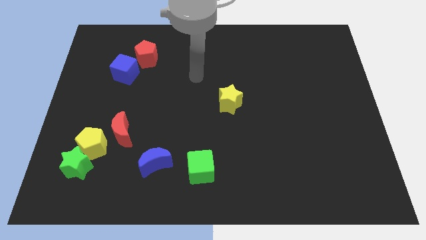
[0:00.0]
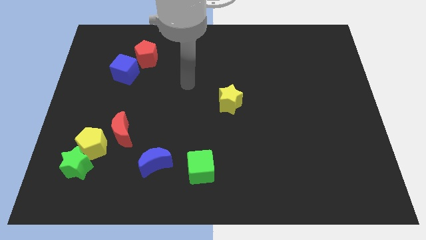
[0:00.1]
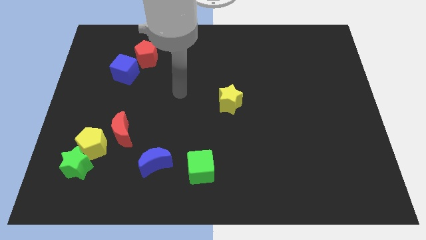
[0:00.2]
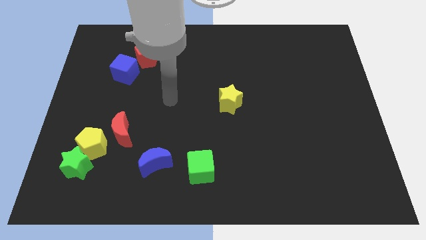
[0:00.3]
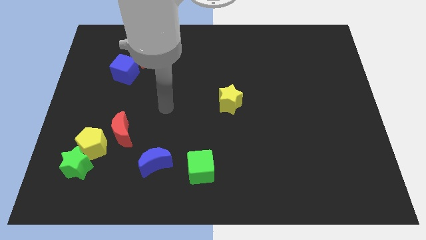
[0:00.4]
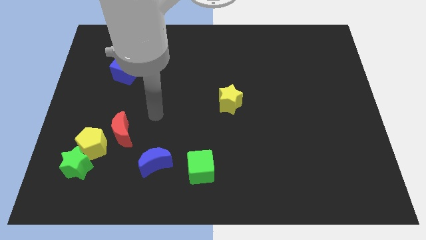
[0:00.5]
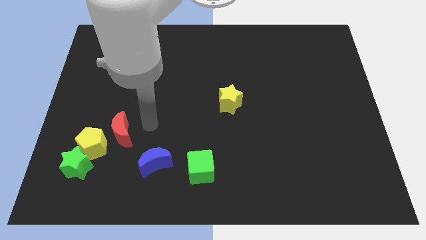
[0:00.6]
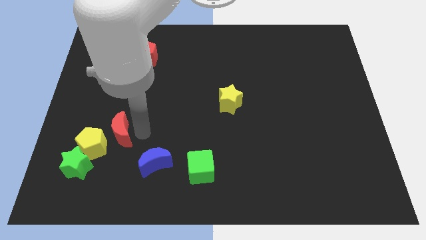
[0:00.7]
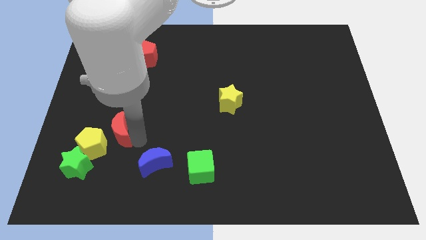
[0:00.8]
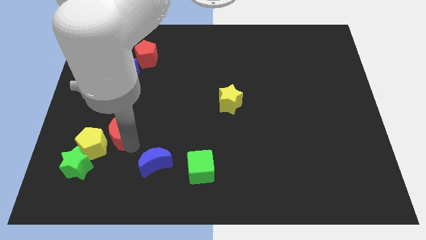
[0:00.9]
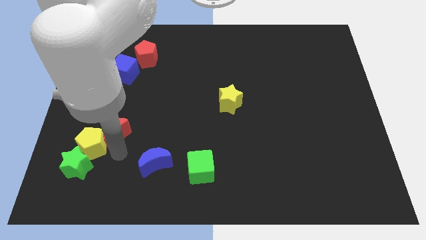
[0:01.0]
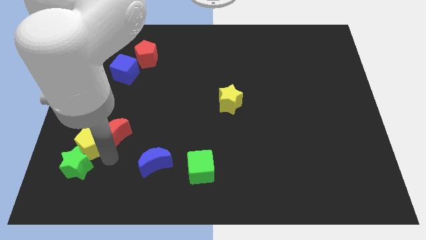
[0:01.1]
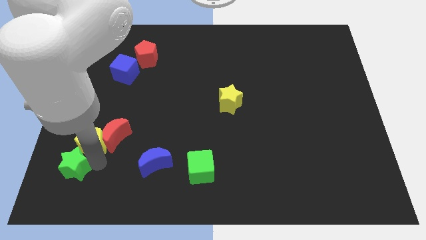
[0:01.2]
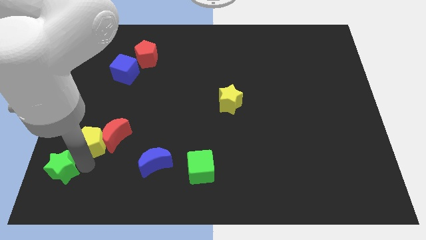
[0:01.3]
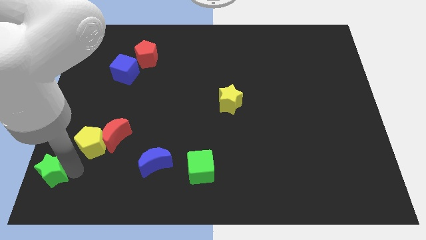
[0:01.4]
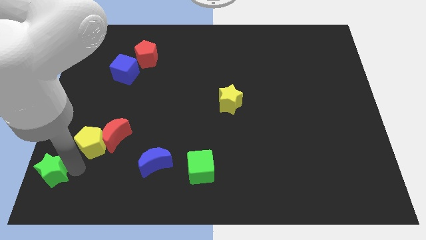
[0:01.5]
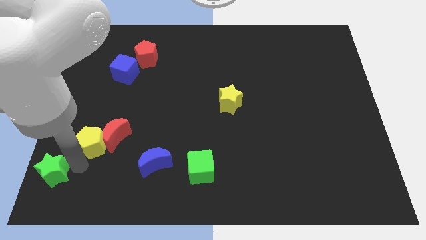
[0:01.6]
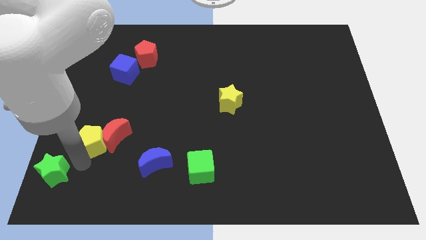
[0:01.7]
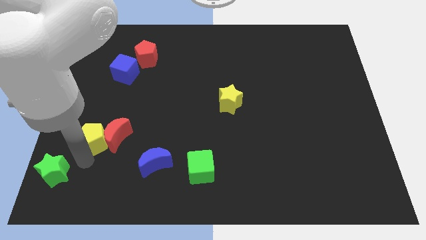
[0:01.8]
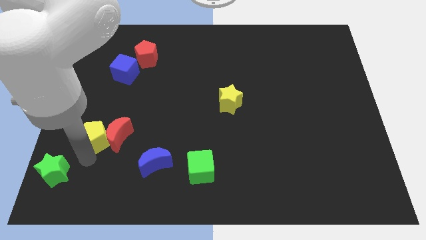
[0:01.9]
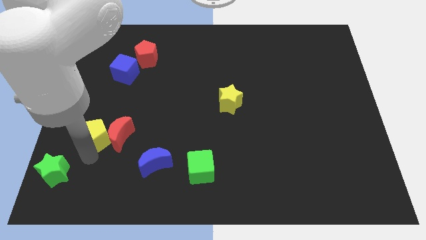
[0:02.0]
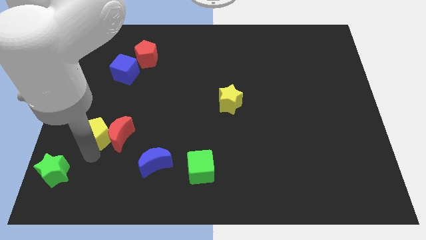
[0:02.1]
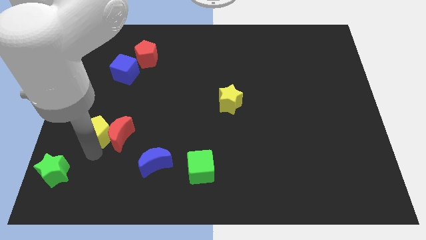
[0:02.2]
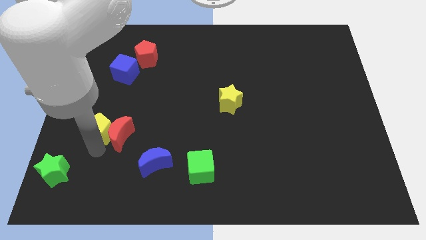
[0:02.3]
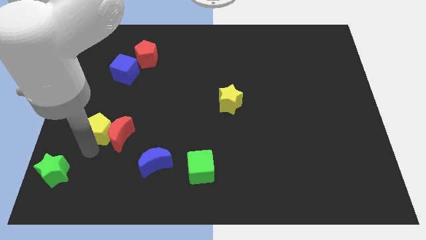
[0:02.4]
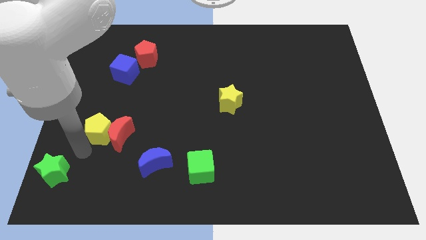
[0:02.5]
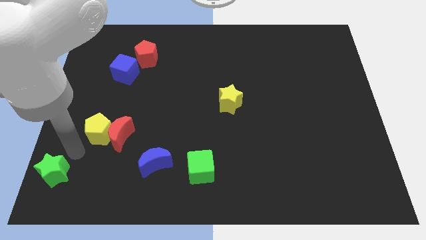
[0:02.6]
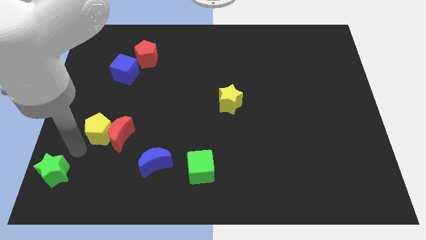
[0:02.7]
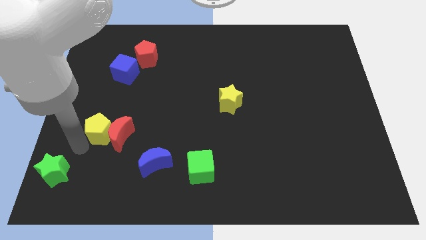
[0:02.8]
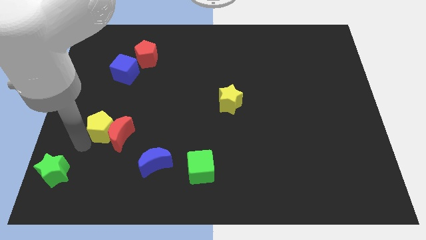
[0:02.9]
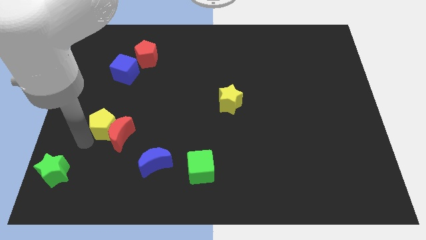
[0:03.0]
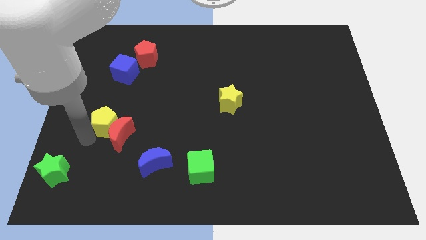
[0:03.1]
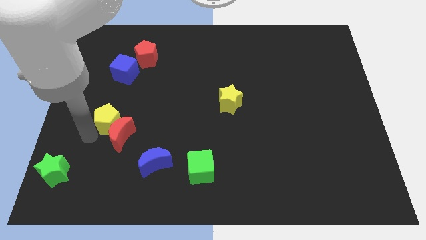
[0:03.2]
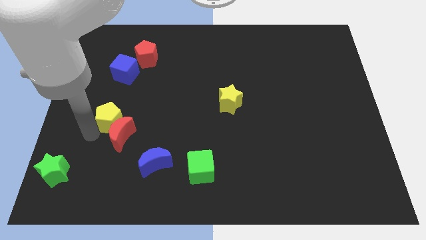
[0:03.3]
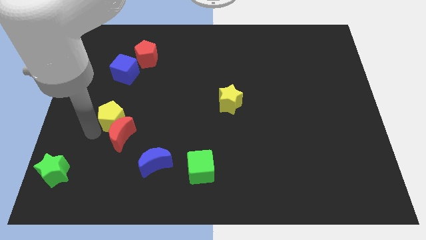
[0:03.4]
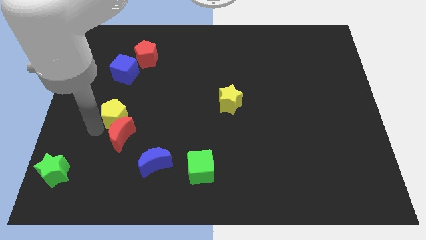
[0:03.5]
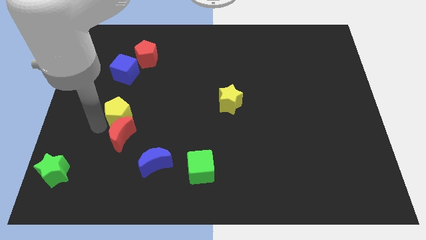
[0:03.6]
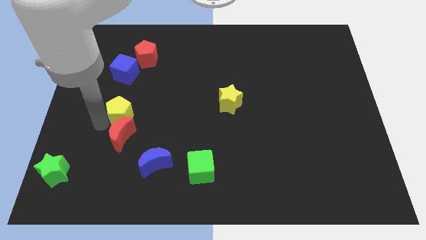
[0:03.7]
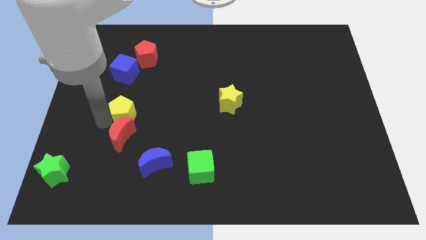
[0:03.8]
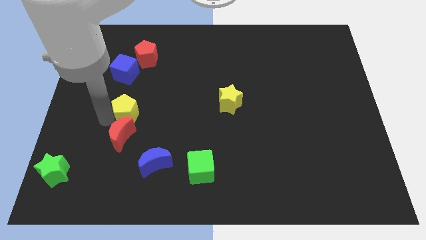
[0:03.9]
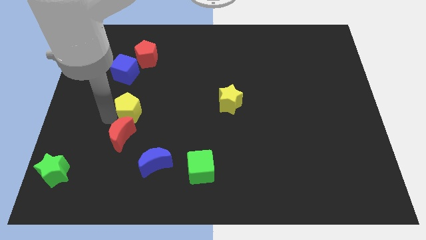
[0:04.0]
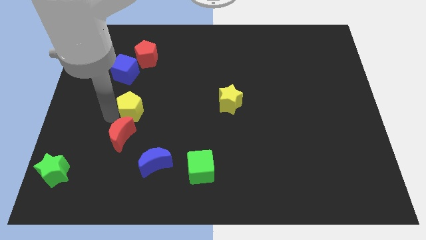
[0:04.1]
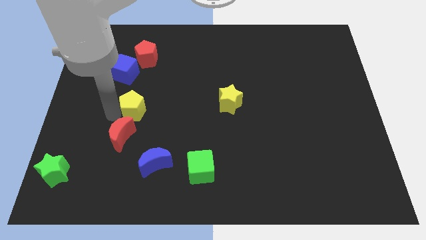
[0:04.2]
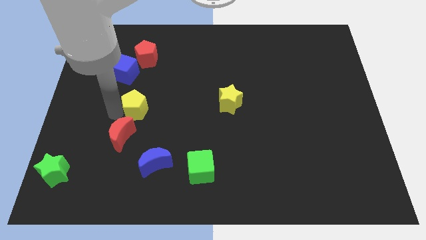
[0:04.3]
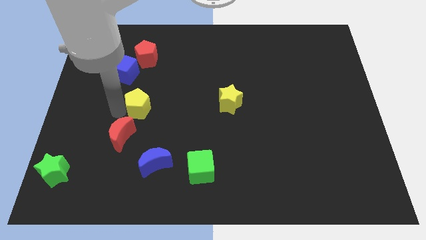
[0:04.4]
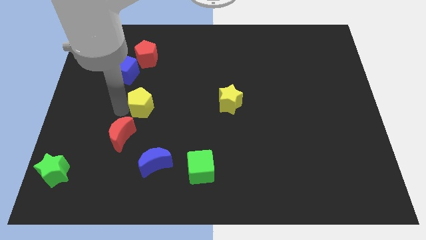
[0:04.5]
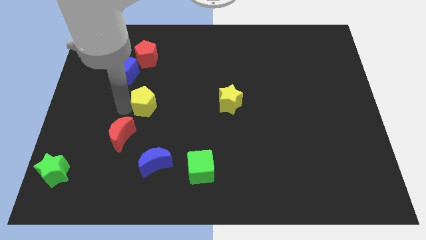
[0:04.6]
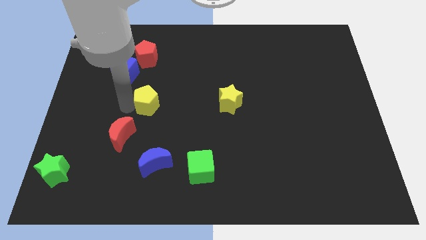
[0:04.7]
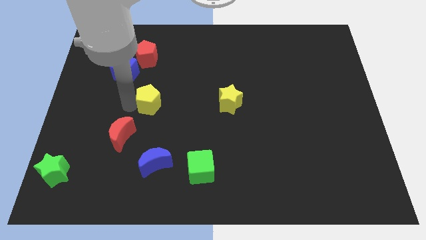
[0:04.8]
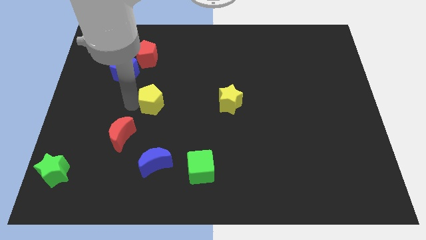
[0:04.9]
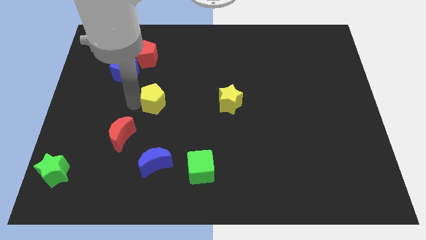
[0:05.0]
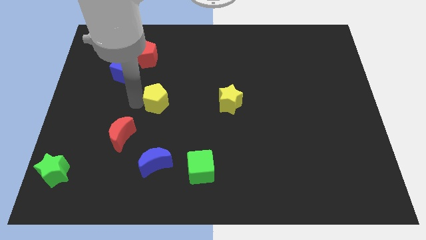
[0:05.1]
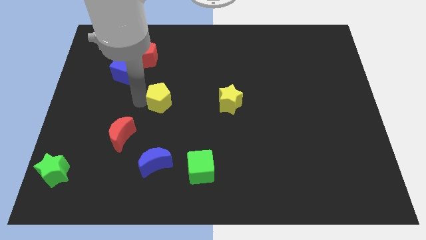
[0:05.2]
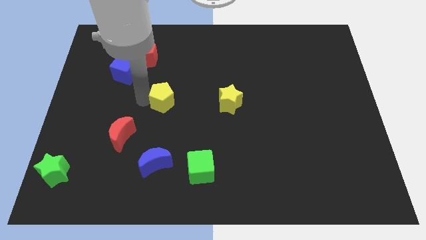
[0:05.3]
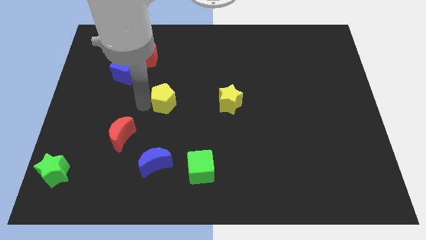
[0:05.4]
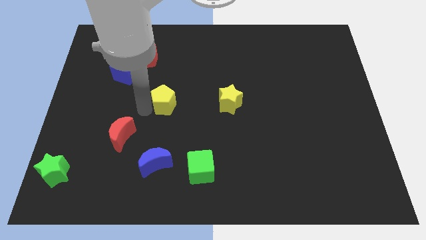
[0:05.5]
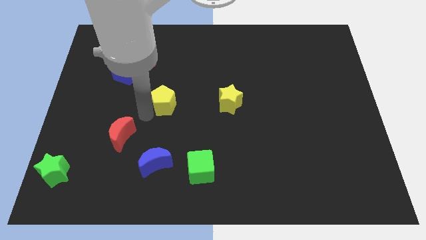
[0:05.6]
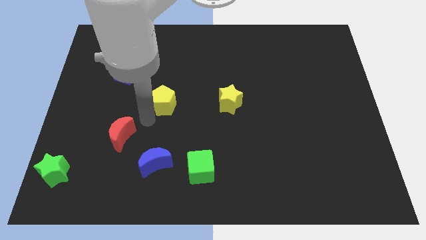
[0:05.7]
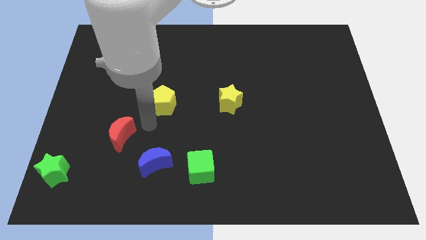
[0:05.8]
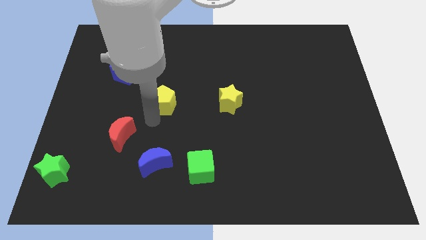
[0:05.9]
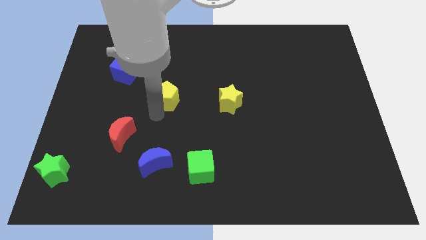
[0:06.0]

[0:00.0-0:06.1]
slide the yellow pentagon upwards and then right

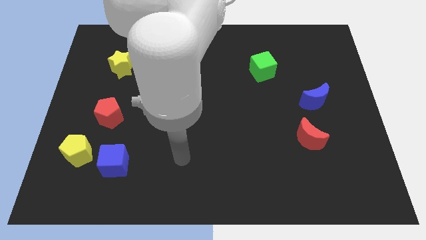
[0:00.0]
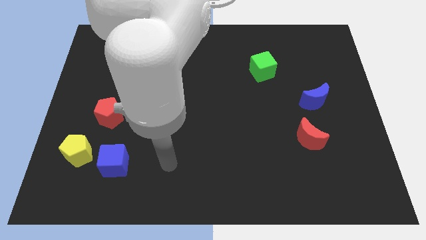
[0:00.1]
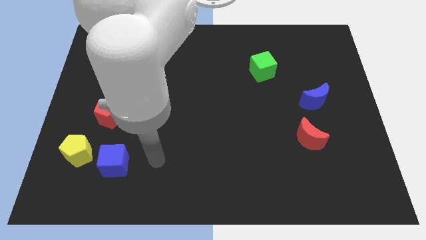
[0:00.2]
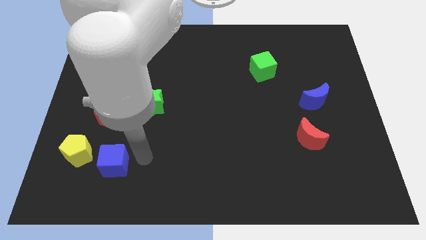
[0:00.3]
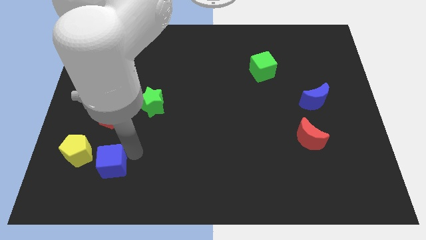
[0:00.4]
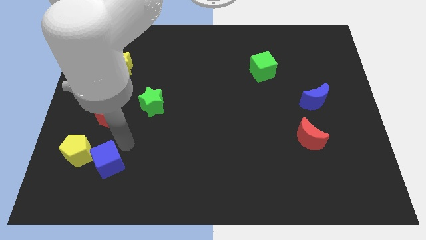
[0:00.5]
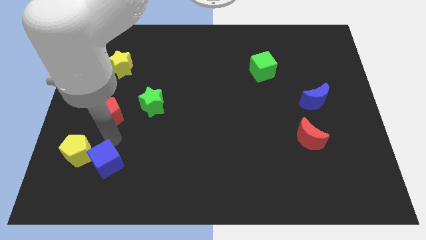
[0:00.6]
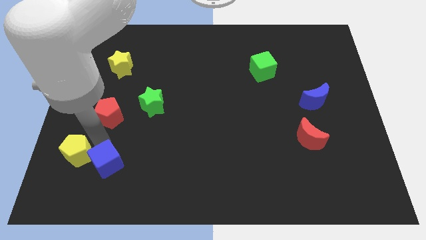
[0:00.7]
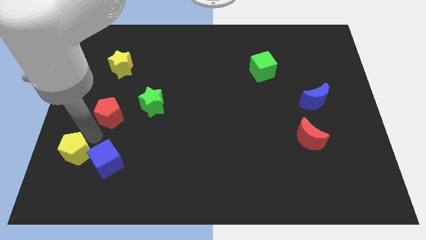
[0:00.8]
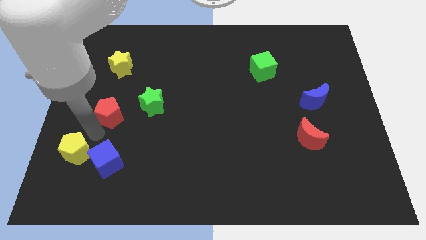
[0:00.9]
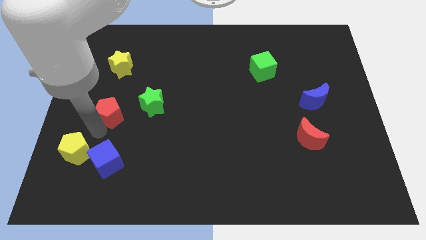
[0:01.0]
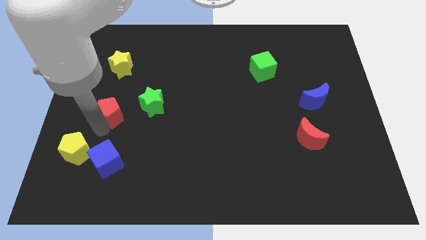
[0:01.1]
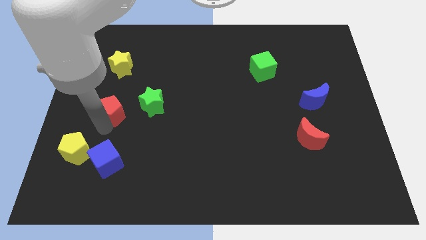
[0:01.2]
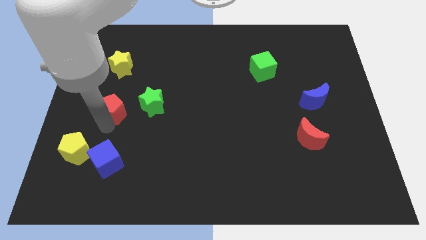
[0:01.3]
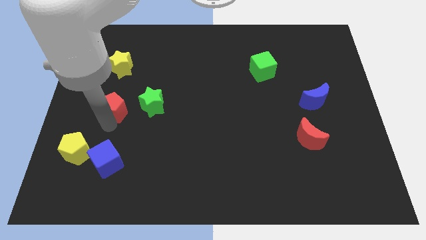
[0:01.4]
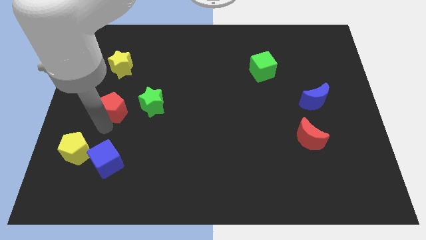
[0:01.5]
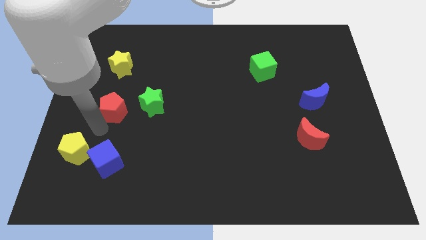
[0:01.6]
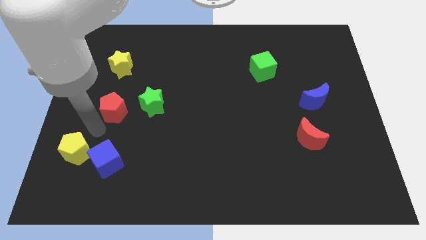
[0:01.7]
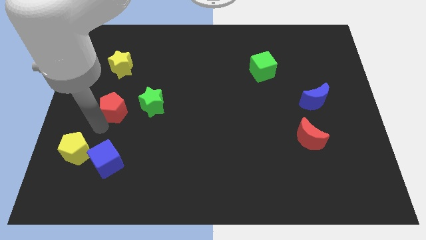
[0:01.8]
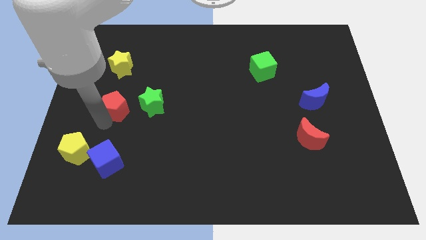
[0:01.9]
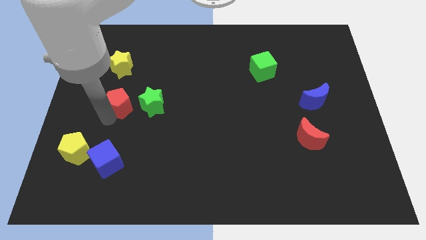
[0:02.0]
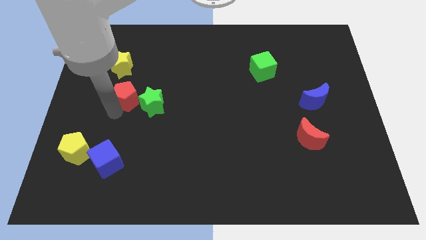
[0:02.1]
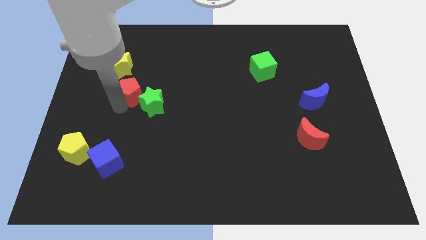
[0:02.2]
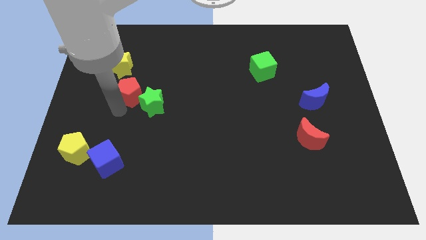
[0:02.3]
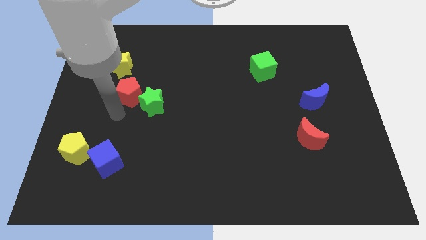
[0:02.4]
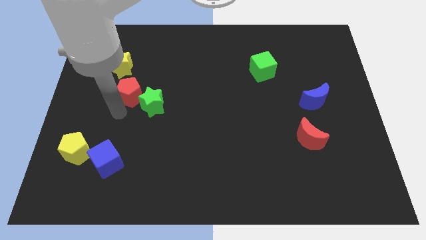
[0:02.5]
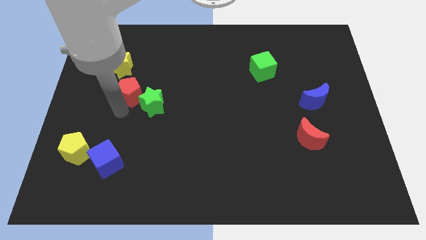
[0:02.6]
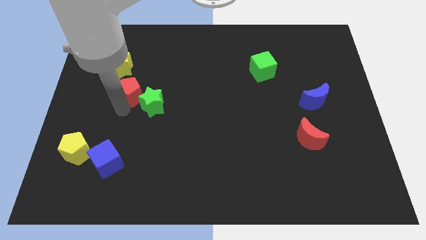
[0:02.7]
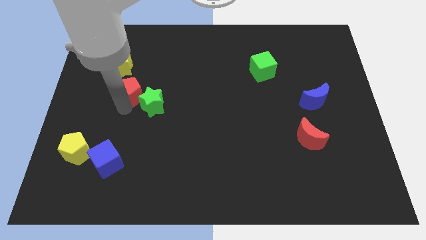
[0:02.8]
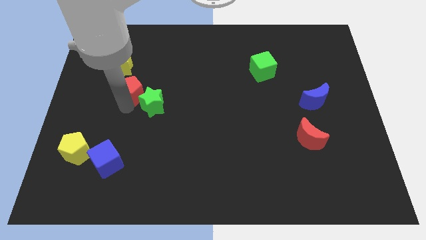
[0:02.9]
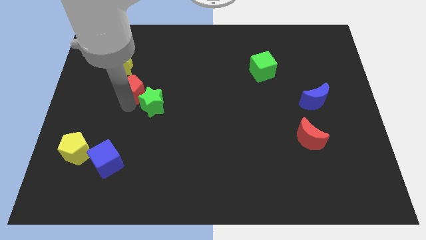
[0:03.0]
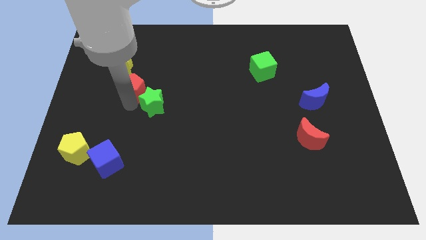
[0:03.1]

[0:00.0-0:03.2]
slide the red pentagon upwards a little
